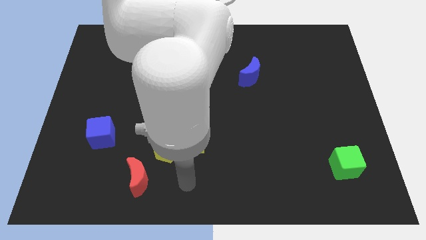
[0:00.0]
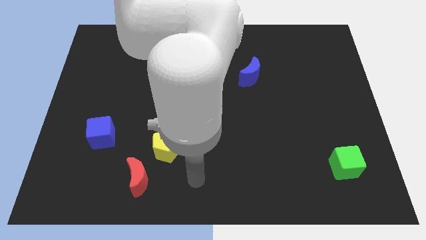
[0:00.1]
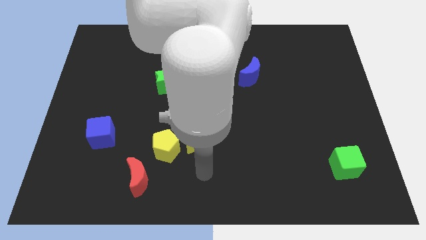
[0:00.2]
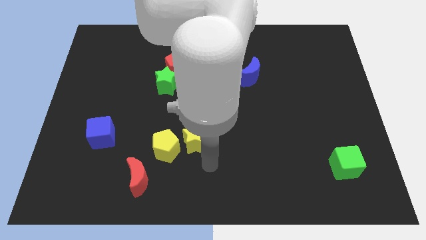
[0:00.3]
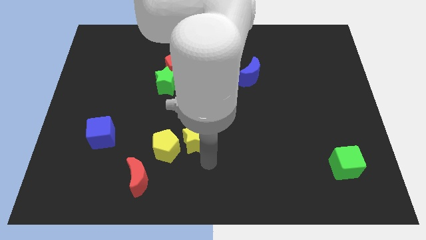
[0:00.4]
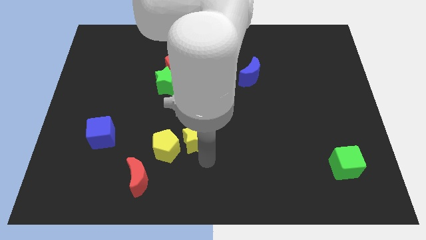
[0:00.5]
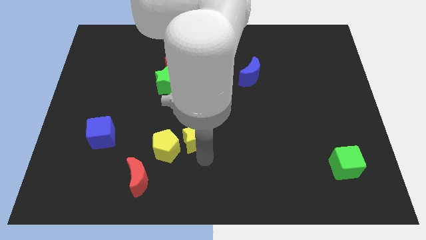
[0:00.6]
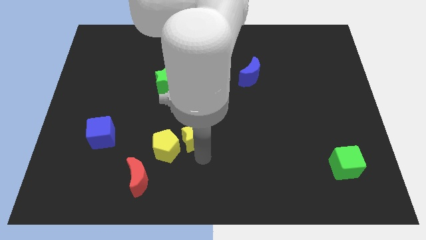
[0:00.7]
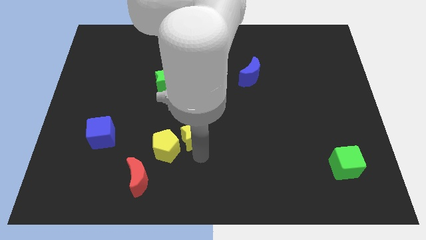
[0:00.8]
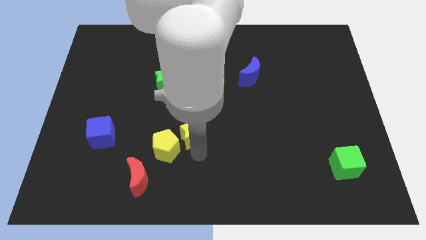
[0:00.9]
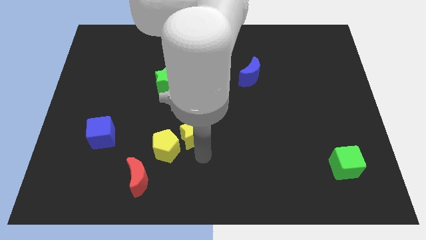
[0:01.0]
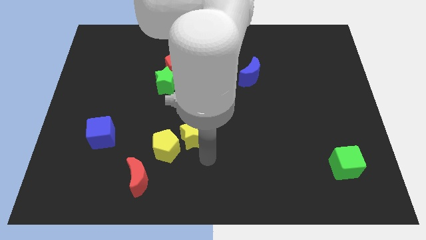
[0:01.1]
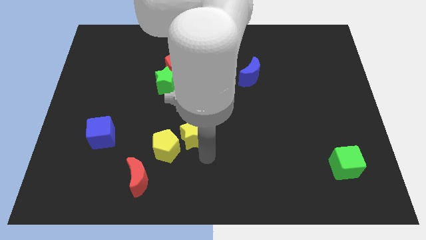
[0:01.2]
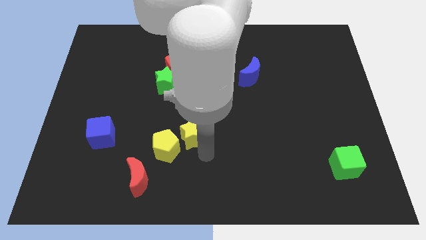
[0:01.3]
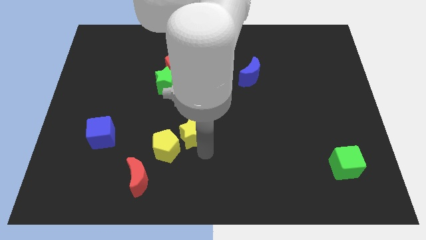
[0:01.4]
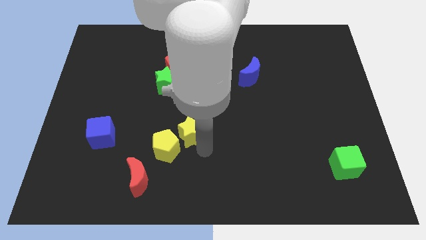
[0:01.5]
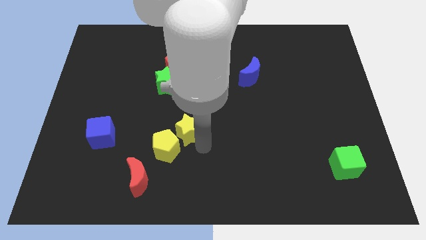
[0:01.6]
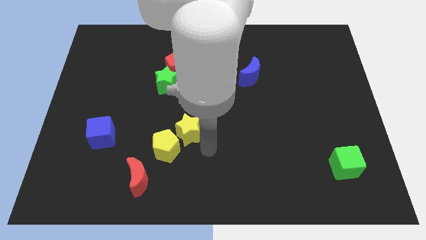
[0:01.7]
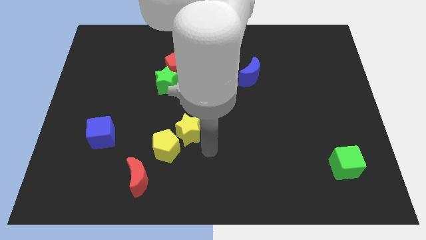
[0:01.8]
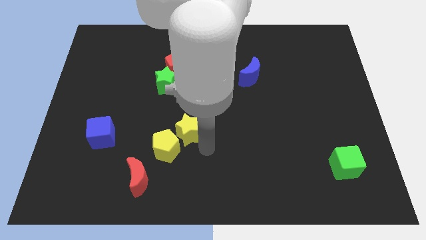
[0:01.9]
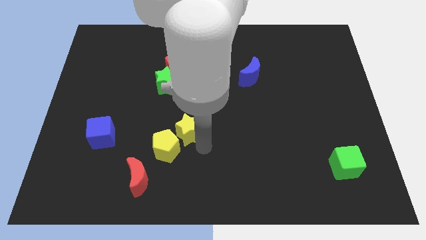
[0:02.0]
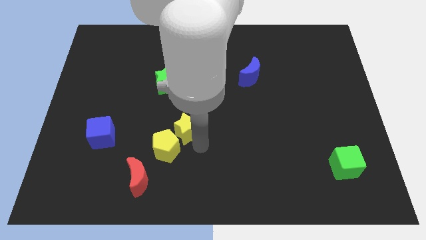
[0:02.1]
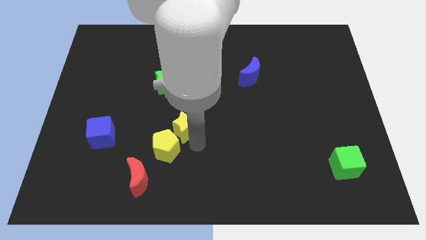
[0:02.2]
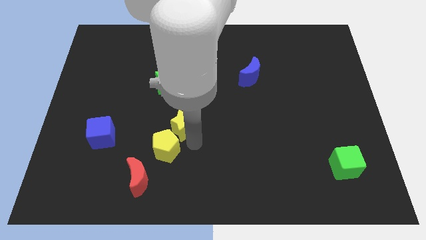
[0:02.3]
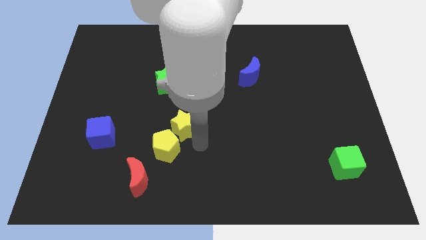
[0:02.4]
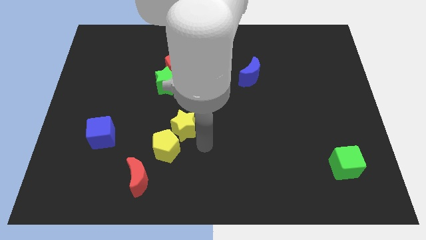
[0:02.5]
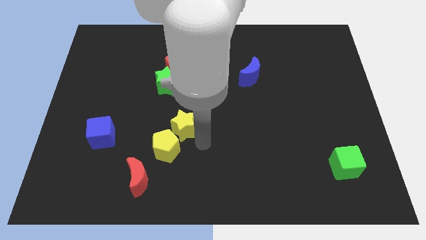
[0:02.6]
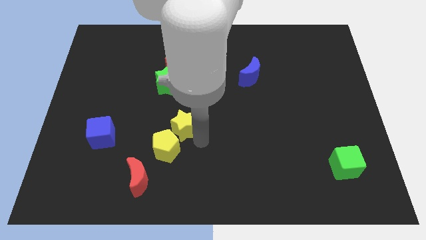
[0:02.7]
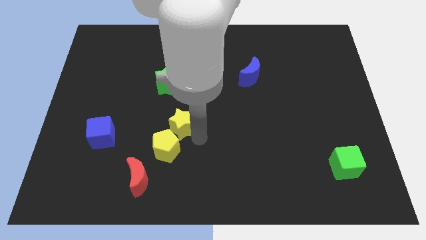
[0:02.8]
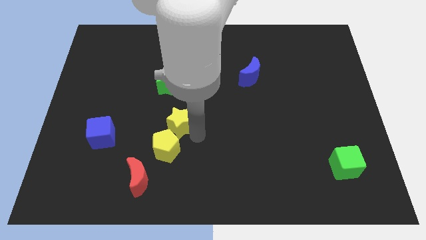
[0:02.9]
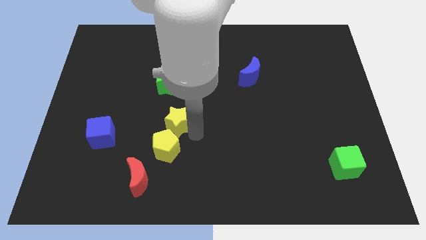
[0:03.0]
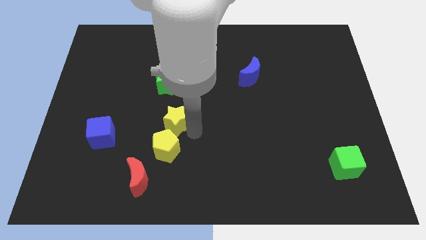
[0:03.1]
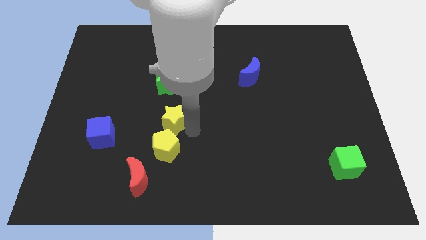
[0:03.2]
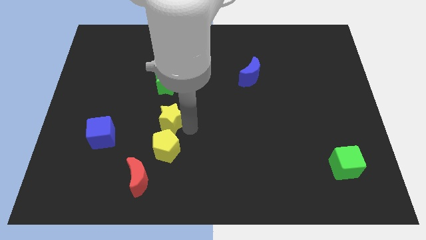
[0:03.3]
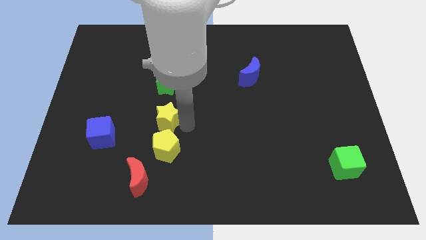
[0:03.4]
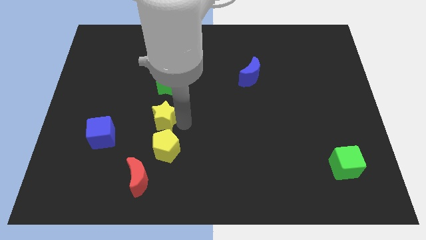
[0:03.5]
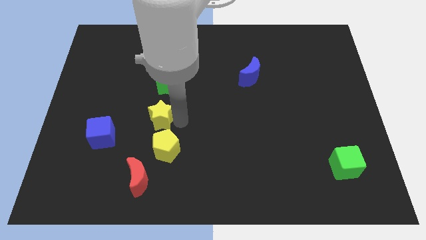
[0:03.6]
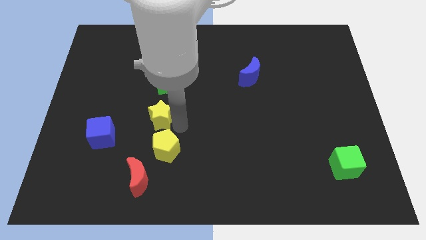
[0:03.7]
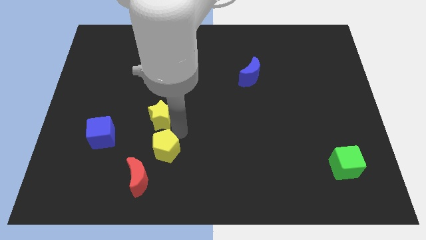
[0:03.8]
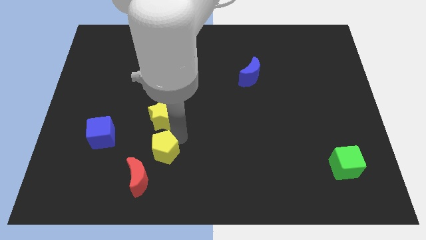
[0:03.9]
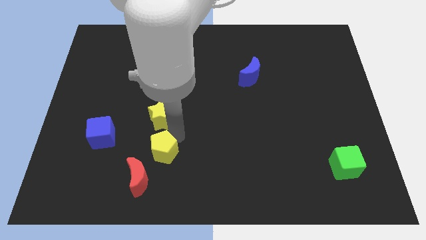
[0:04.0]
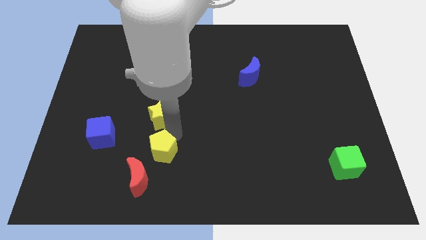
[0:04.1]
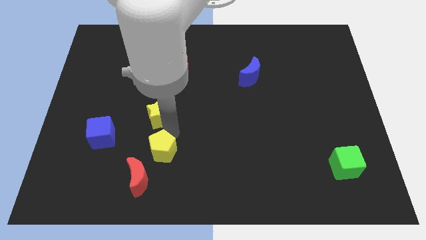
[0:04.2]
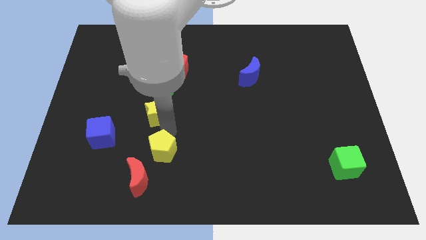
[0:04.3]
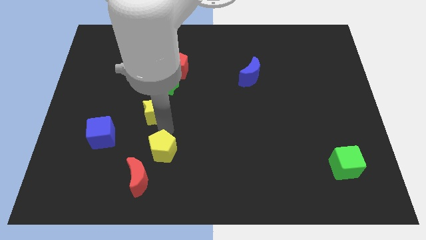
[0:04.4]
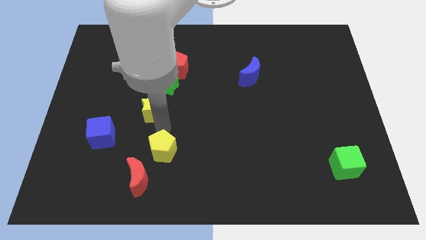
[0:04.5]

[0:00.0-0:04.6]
push the yellow star to the bottom left side of the green star

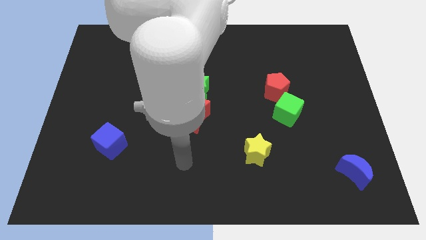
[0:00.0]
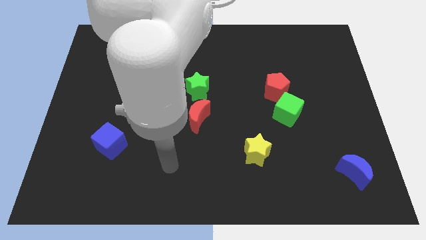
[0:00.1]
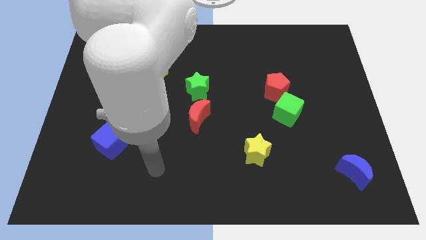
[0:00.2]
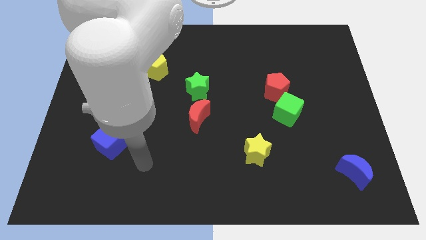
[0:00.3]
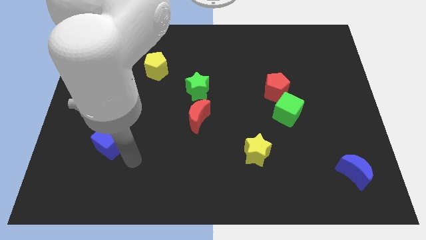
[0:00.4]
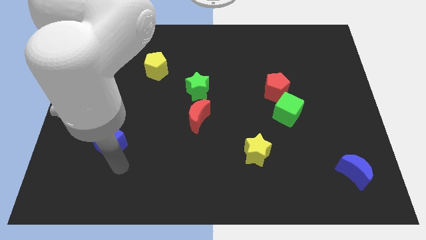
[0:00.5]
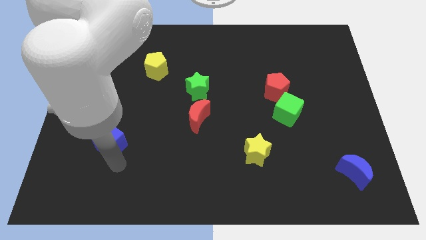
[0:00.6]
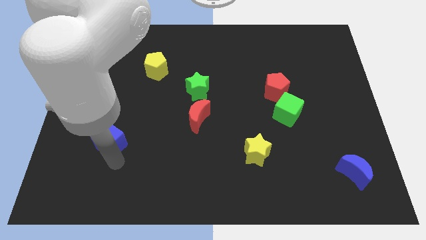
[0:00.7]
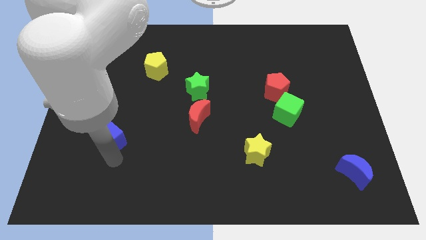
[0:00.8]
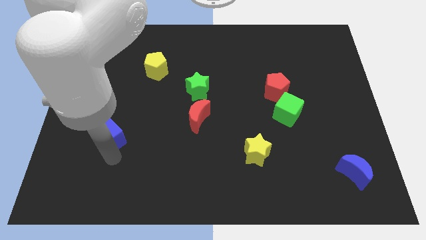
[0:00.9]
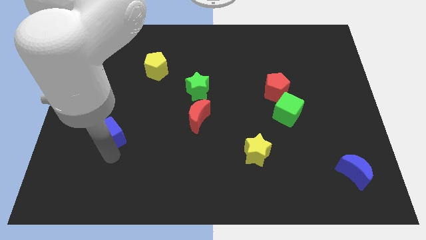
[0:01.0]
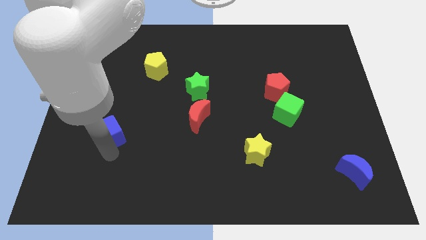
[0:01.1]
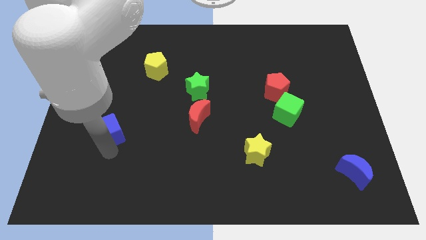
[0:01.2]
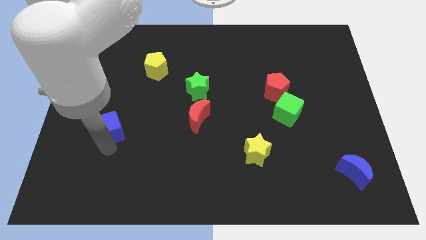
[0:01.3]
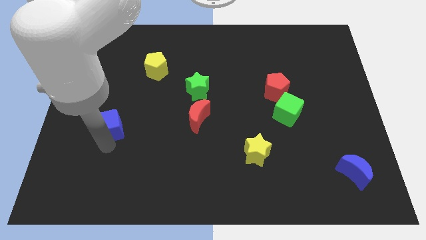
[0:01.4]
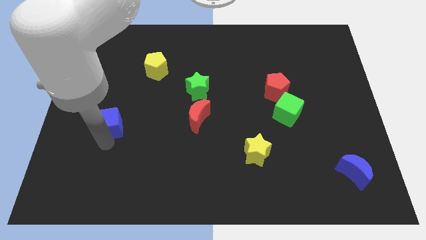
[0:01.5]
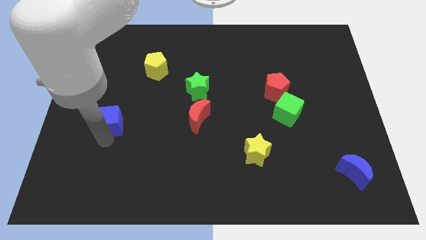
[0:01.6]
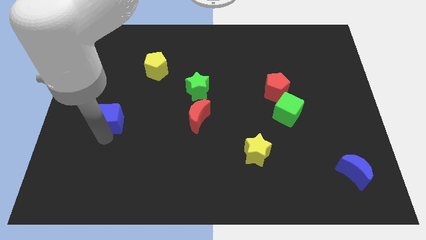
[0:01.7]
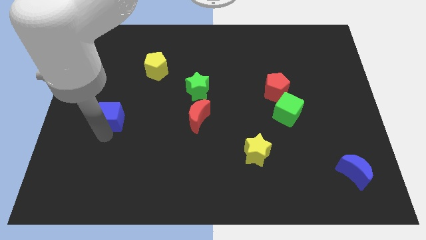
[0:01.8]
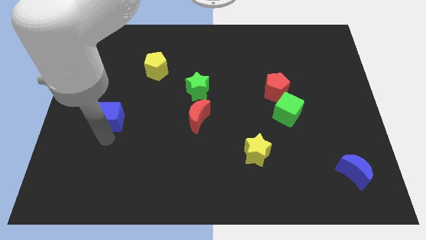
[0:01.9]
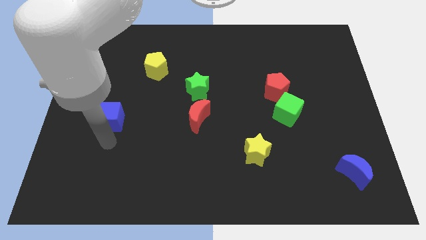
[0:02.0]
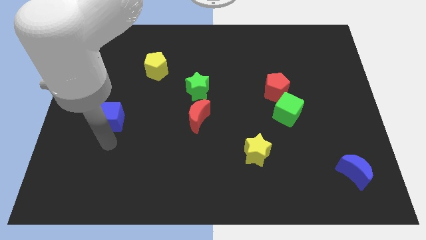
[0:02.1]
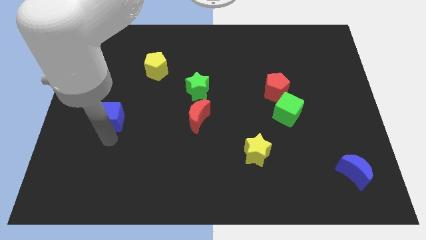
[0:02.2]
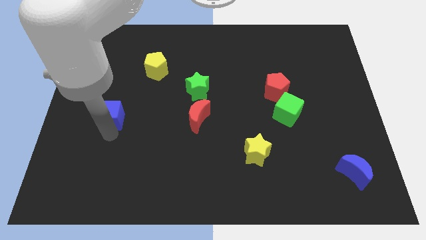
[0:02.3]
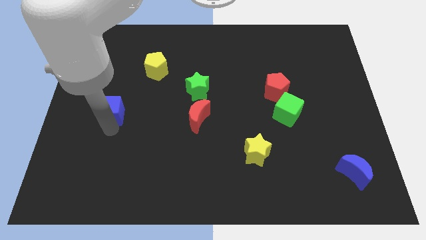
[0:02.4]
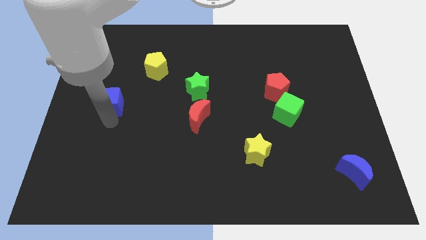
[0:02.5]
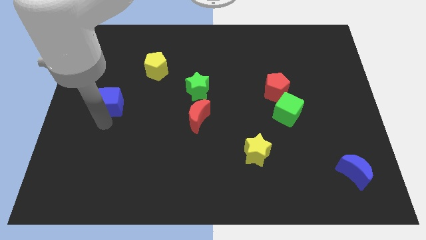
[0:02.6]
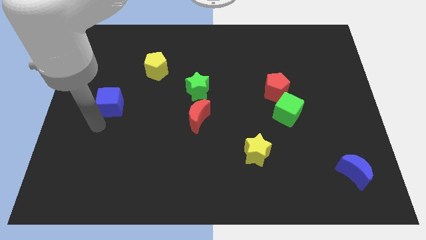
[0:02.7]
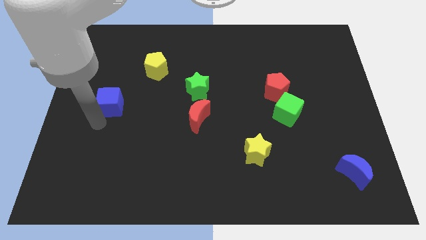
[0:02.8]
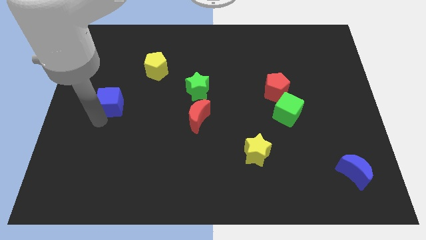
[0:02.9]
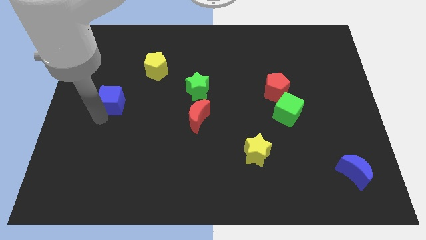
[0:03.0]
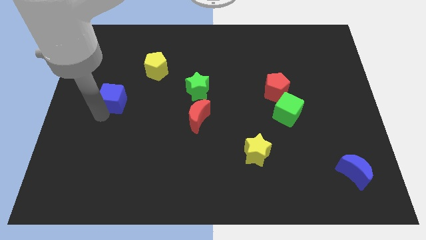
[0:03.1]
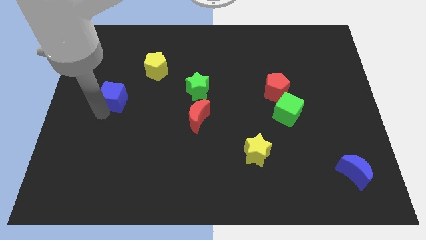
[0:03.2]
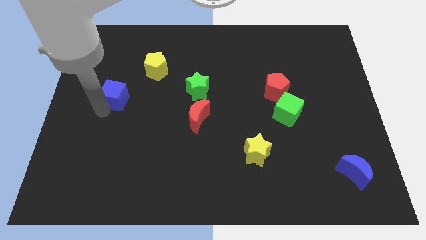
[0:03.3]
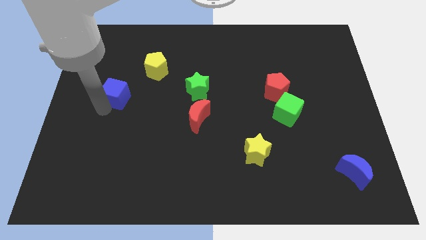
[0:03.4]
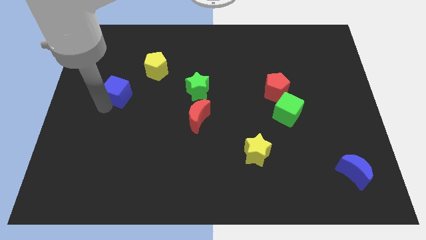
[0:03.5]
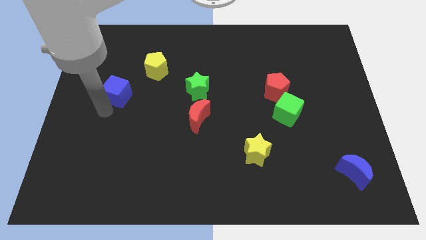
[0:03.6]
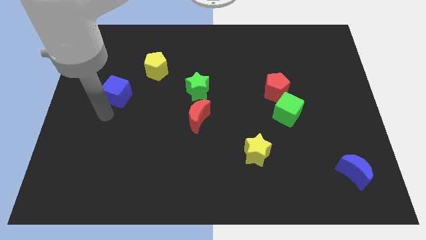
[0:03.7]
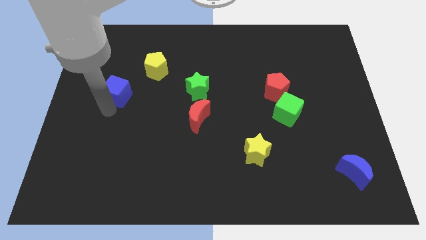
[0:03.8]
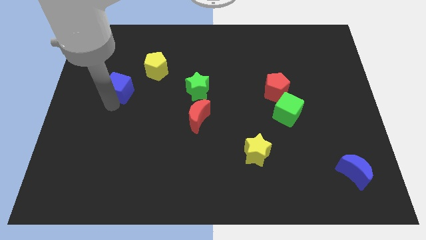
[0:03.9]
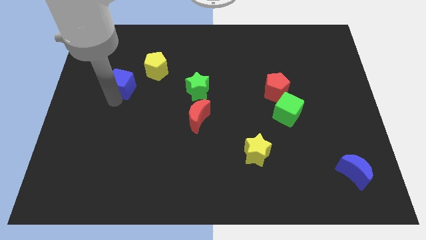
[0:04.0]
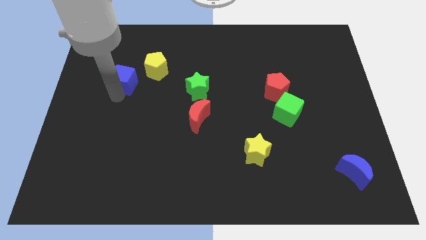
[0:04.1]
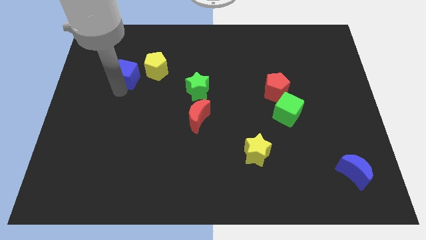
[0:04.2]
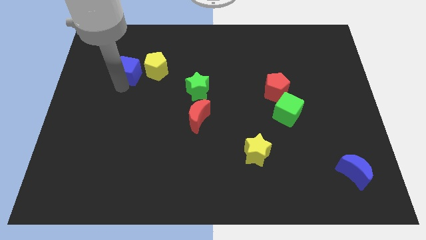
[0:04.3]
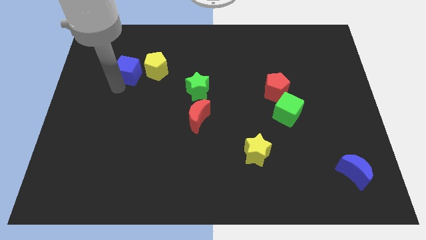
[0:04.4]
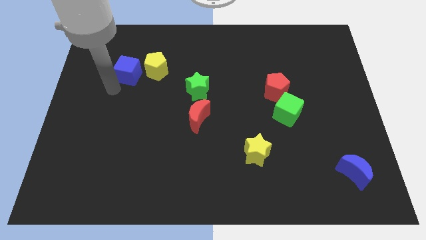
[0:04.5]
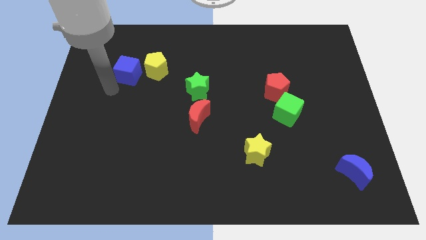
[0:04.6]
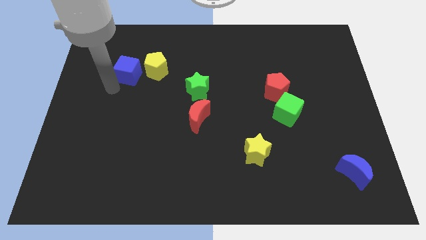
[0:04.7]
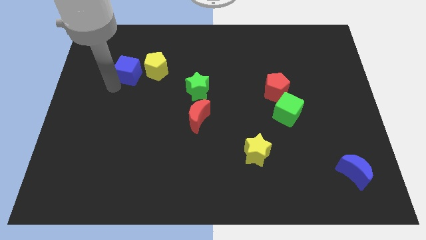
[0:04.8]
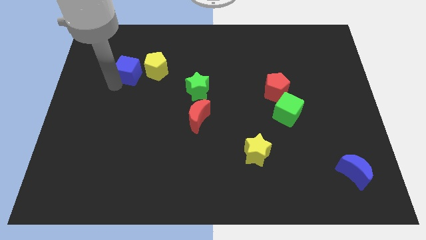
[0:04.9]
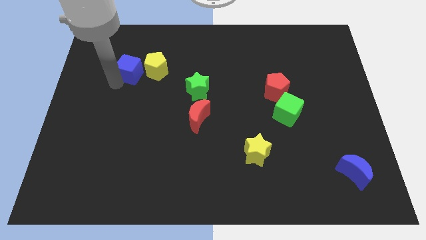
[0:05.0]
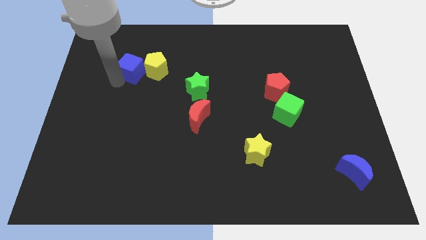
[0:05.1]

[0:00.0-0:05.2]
move the blue cube diagonally up and to the left of the yellow pentagon
